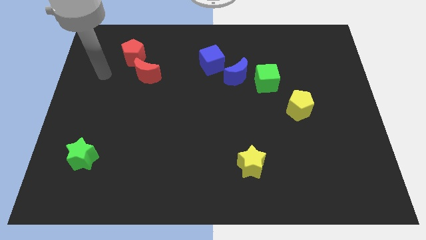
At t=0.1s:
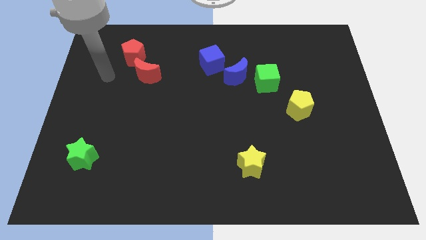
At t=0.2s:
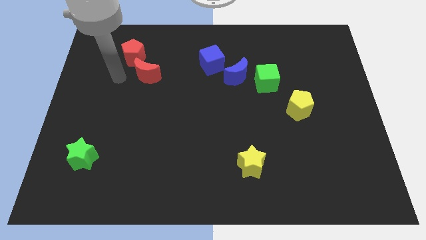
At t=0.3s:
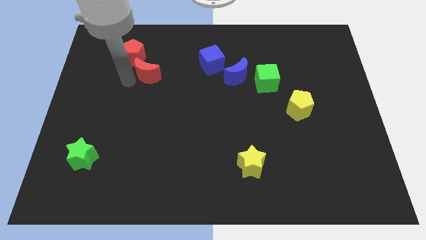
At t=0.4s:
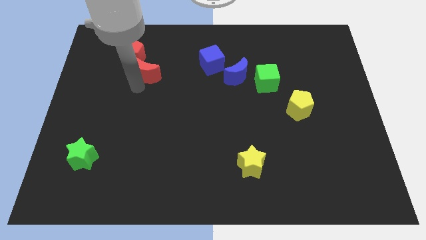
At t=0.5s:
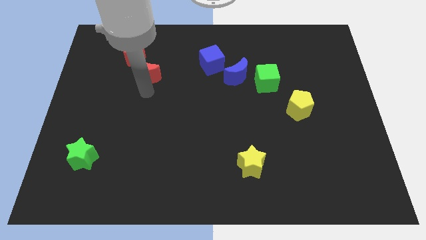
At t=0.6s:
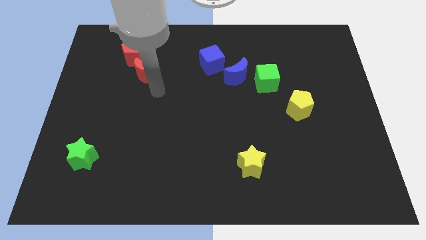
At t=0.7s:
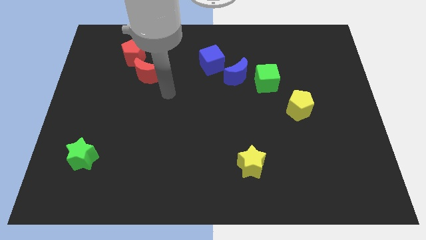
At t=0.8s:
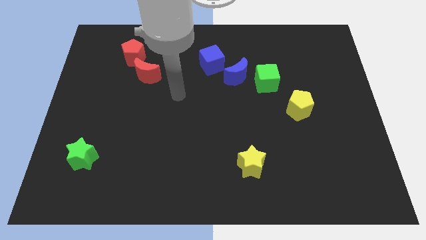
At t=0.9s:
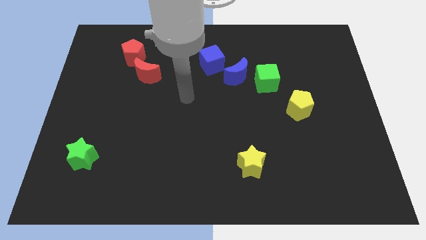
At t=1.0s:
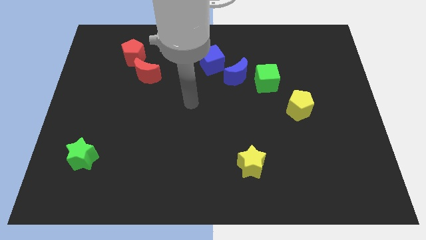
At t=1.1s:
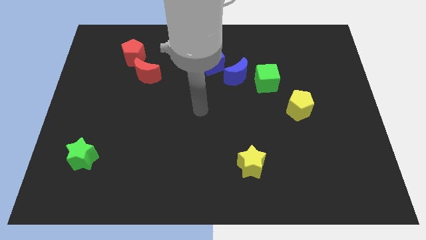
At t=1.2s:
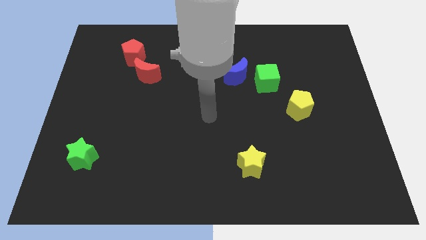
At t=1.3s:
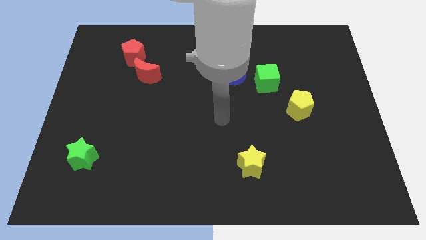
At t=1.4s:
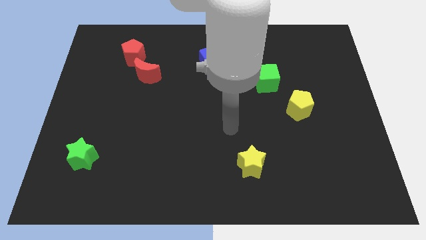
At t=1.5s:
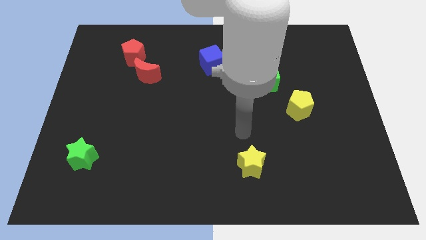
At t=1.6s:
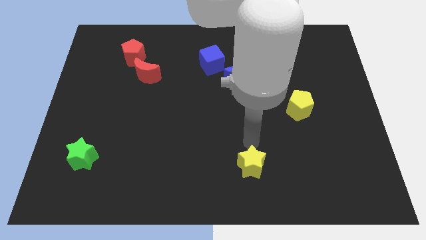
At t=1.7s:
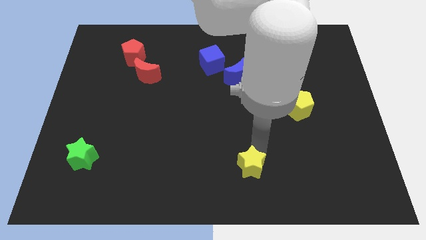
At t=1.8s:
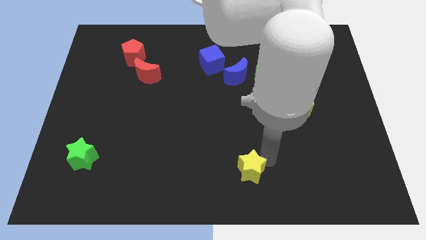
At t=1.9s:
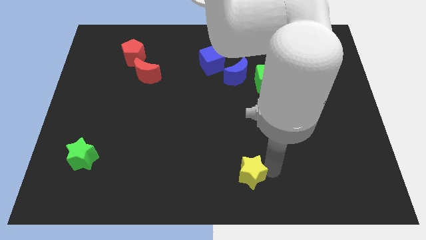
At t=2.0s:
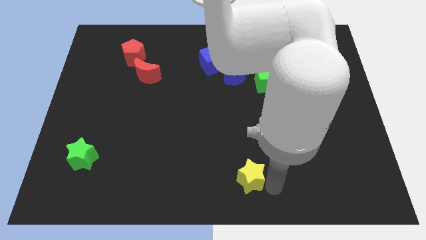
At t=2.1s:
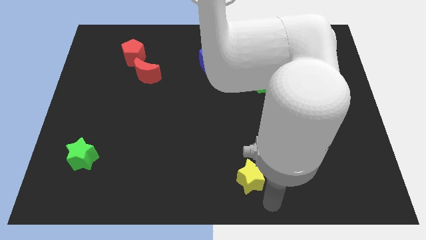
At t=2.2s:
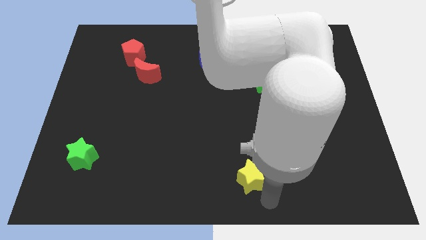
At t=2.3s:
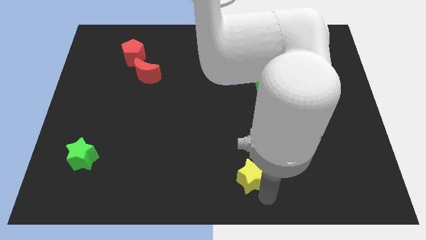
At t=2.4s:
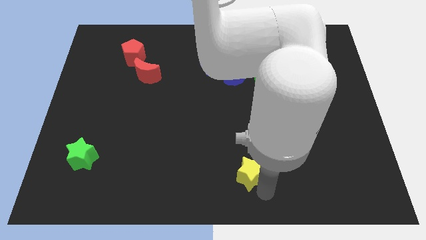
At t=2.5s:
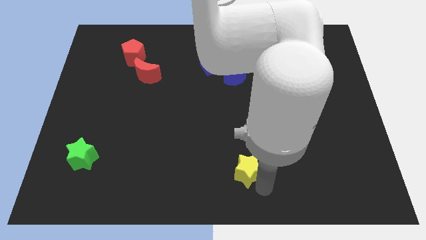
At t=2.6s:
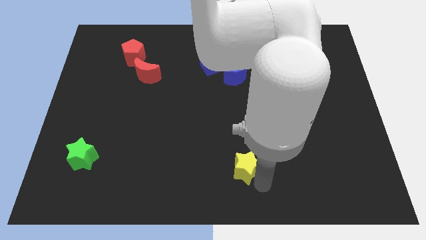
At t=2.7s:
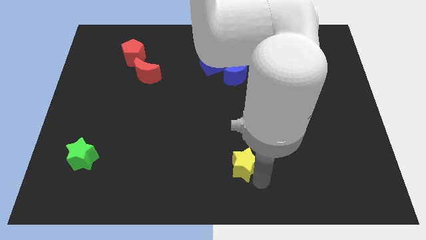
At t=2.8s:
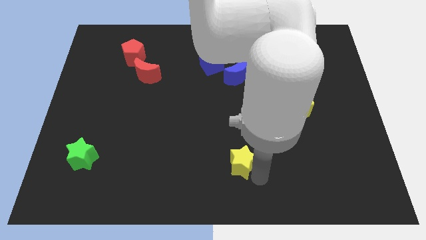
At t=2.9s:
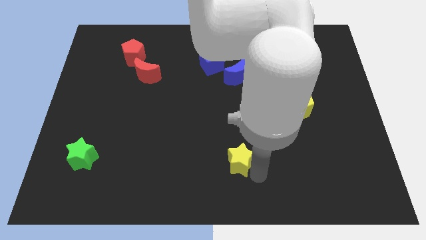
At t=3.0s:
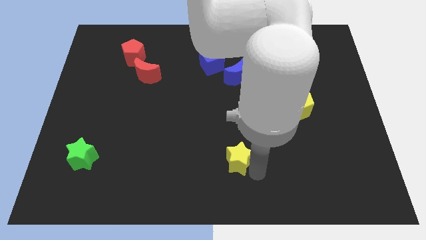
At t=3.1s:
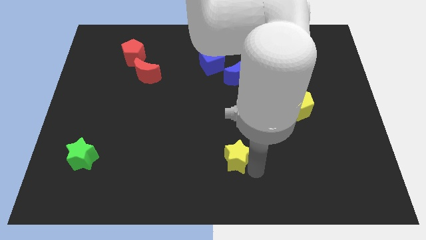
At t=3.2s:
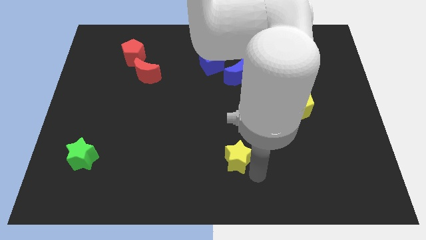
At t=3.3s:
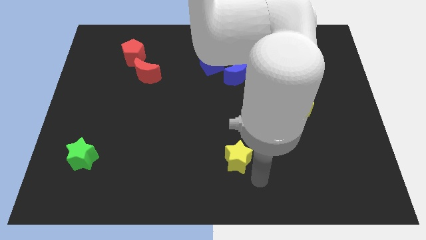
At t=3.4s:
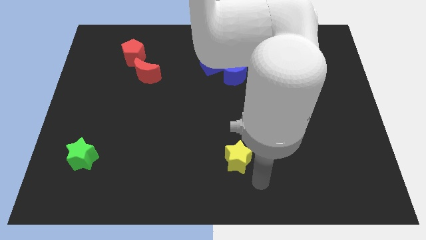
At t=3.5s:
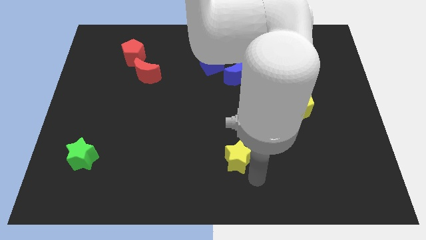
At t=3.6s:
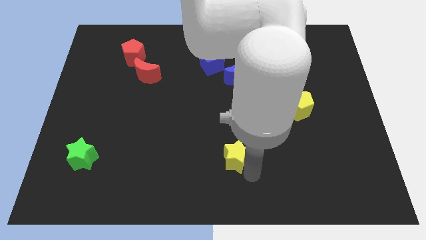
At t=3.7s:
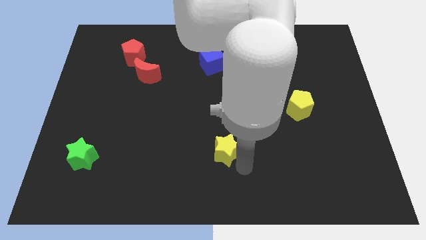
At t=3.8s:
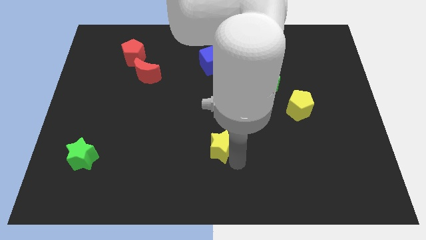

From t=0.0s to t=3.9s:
slightly slide the yellow star upwards and then to the left

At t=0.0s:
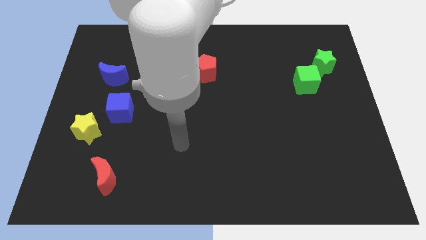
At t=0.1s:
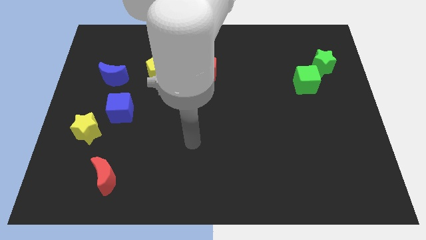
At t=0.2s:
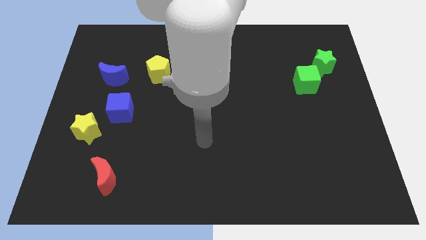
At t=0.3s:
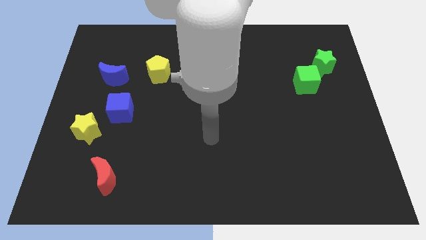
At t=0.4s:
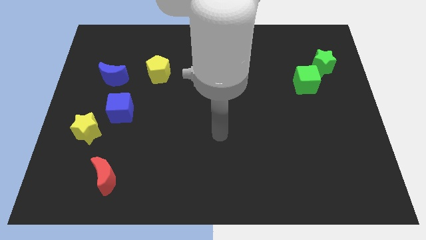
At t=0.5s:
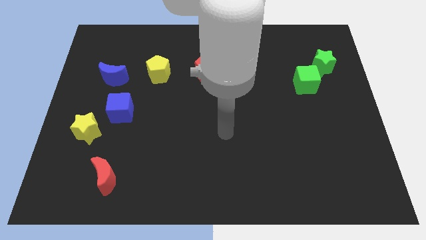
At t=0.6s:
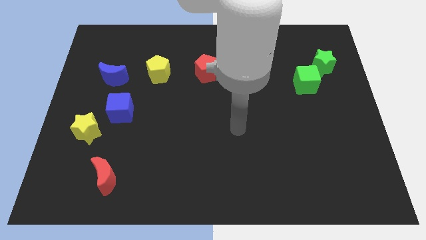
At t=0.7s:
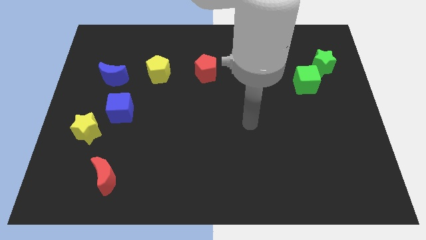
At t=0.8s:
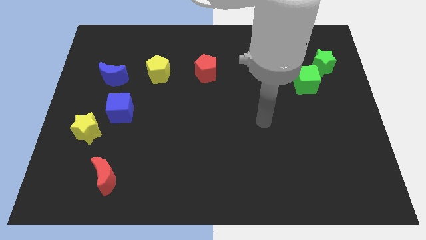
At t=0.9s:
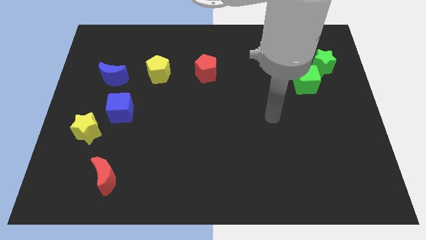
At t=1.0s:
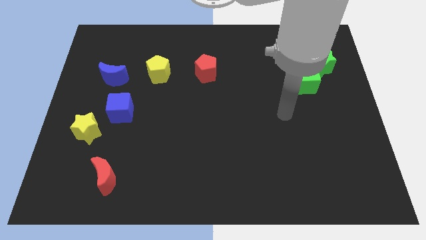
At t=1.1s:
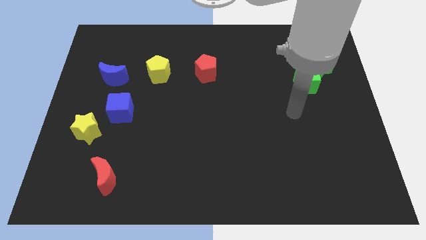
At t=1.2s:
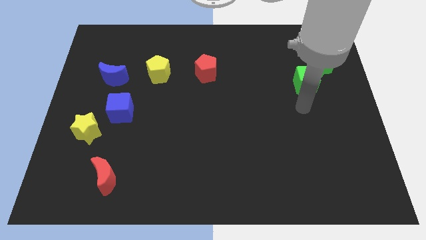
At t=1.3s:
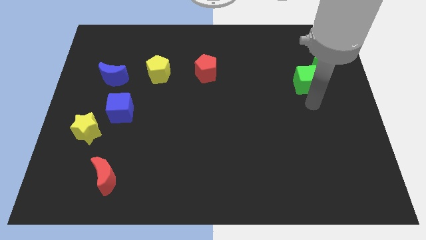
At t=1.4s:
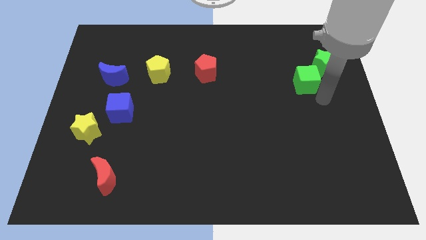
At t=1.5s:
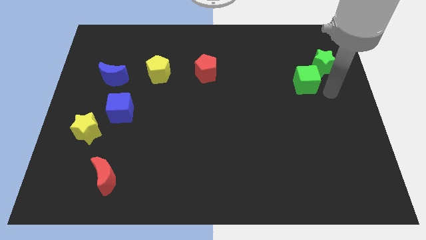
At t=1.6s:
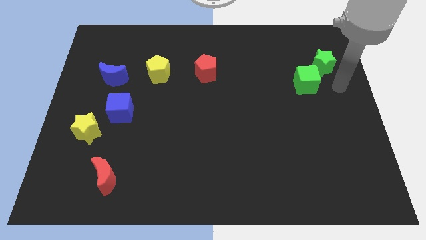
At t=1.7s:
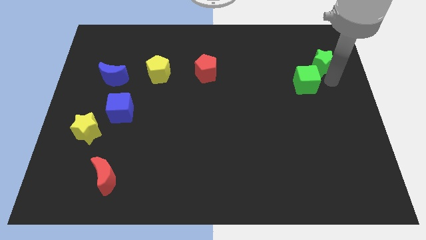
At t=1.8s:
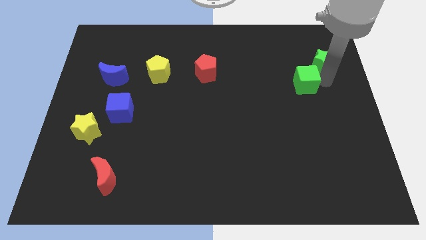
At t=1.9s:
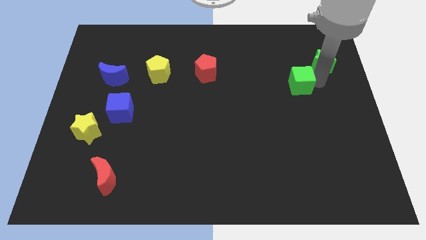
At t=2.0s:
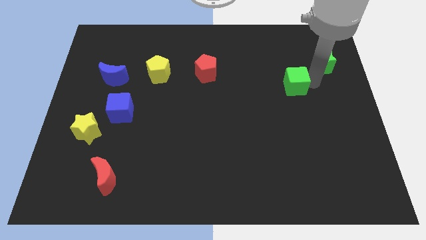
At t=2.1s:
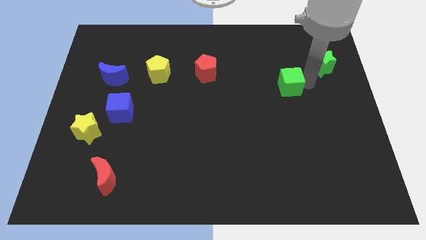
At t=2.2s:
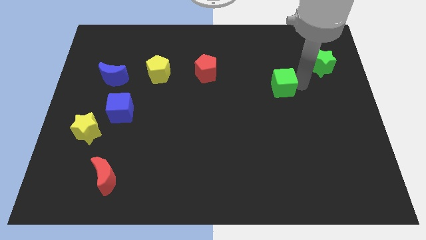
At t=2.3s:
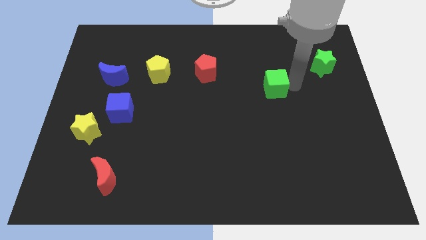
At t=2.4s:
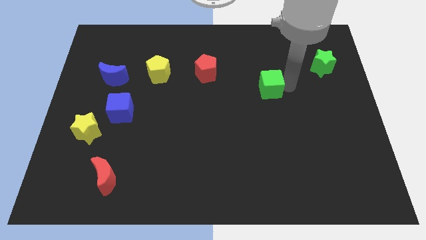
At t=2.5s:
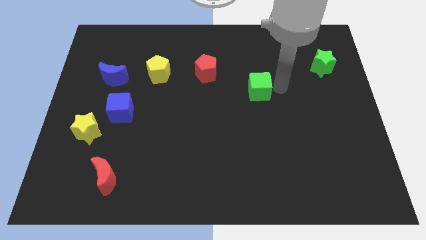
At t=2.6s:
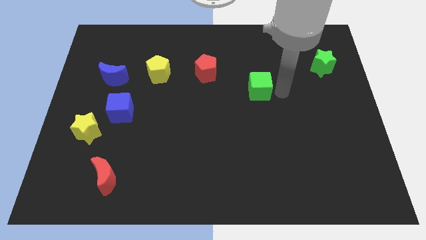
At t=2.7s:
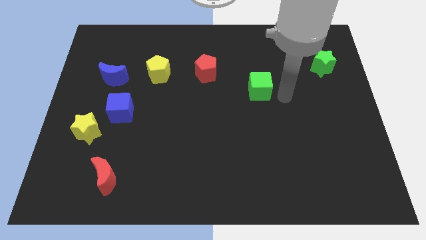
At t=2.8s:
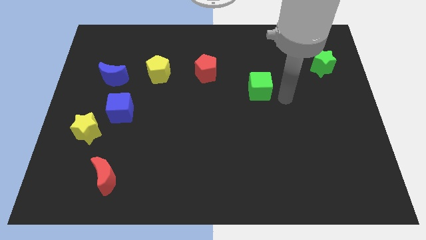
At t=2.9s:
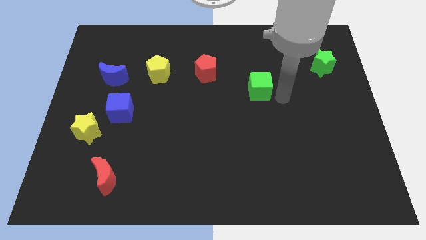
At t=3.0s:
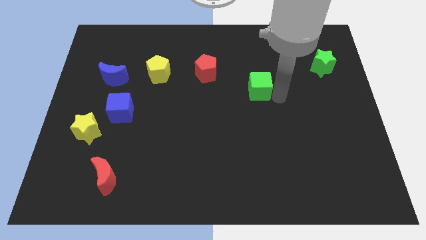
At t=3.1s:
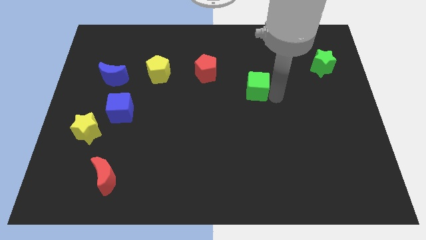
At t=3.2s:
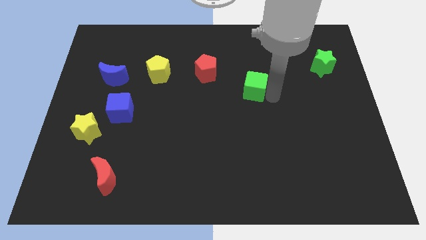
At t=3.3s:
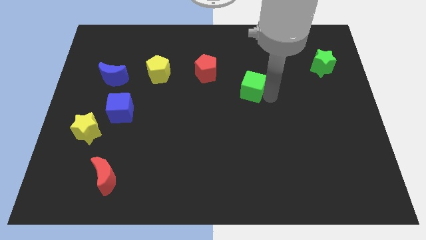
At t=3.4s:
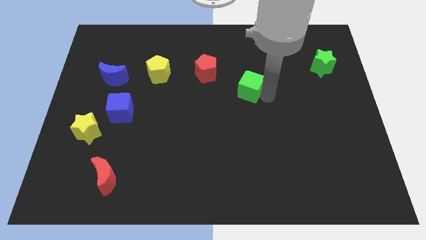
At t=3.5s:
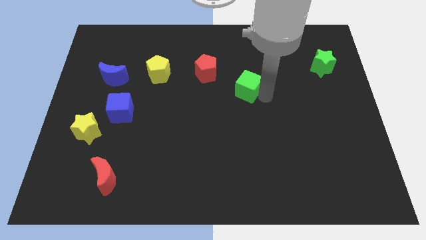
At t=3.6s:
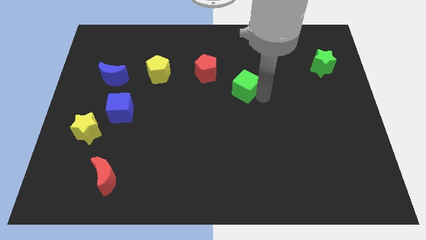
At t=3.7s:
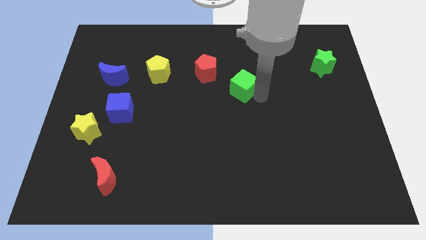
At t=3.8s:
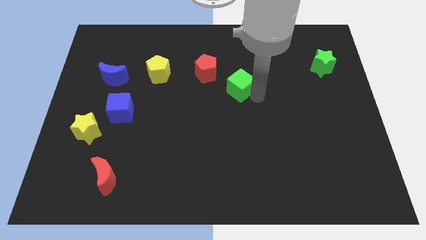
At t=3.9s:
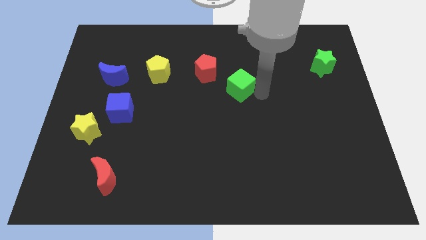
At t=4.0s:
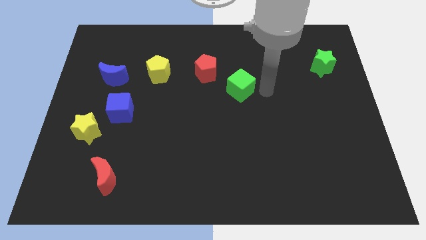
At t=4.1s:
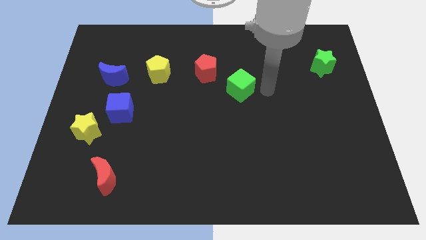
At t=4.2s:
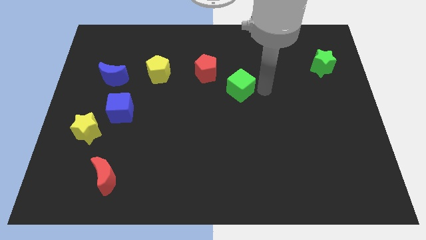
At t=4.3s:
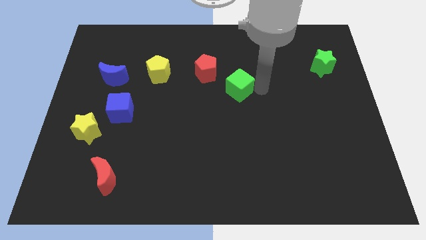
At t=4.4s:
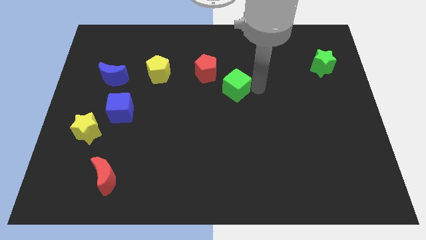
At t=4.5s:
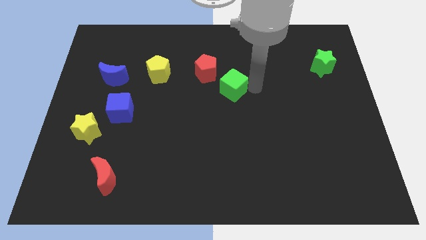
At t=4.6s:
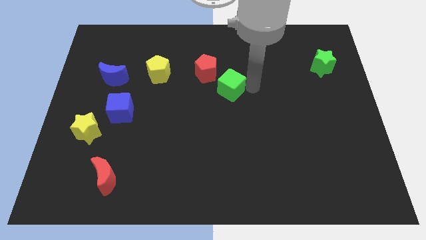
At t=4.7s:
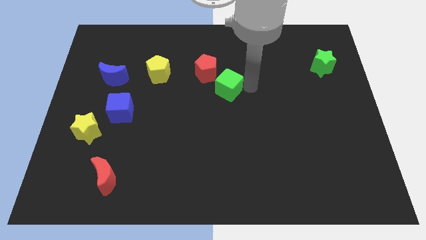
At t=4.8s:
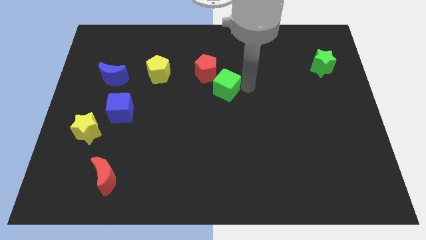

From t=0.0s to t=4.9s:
move the green cube left
